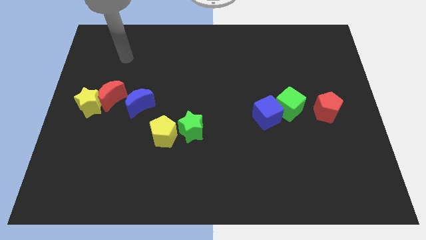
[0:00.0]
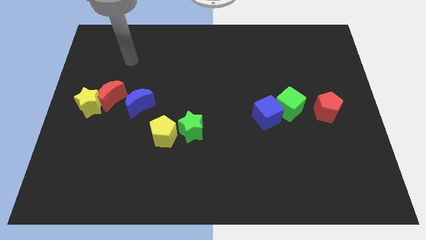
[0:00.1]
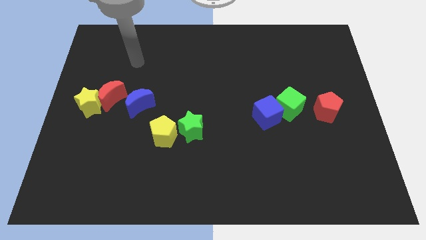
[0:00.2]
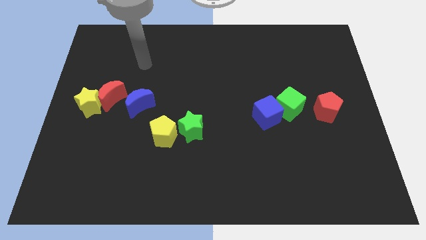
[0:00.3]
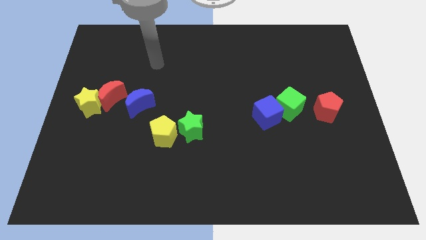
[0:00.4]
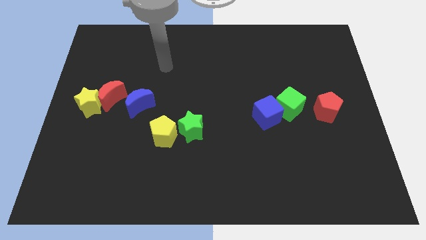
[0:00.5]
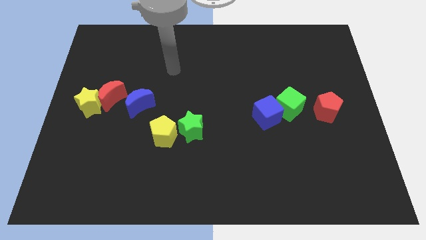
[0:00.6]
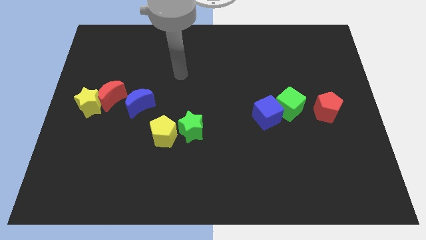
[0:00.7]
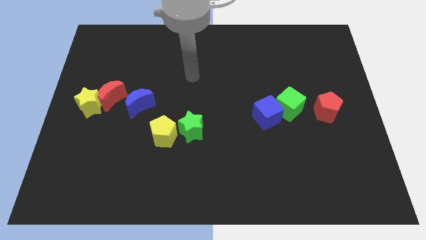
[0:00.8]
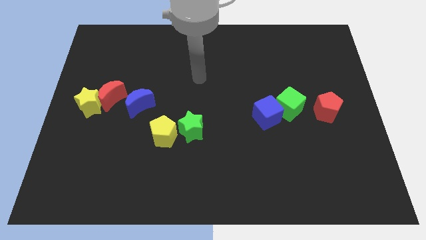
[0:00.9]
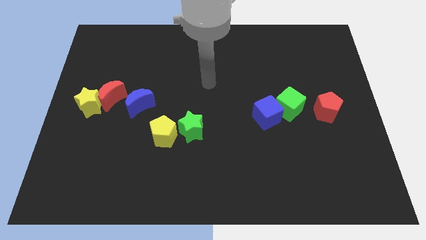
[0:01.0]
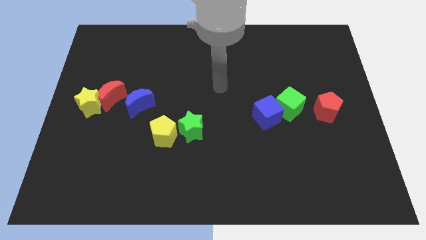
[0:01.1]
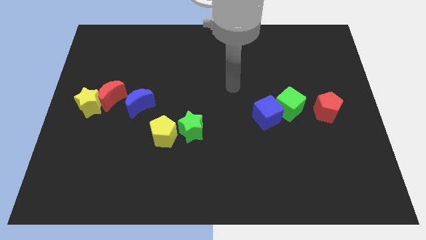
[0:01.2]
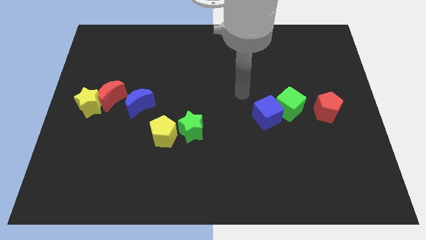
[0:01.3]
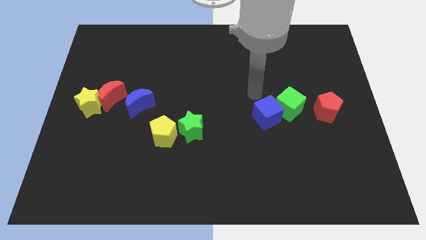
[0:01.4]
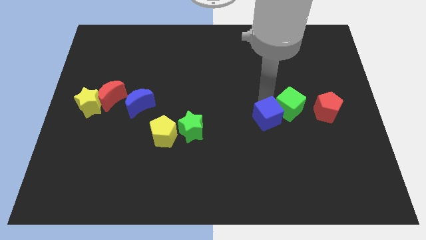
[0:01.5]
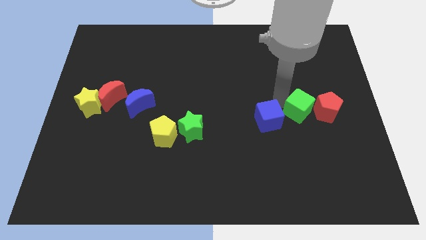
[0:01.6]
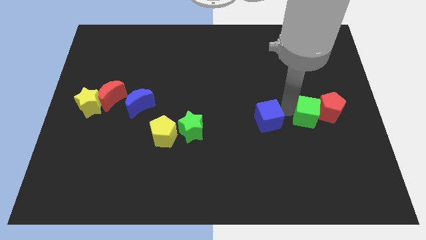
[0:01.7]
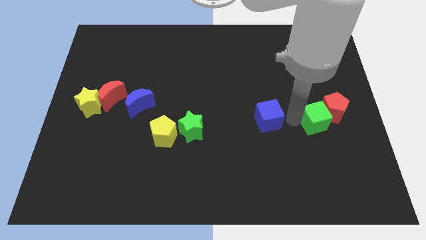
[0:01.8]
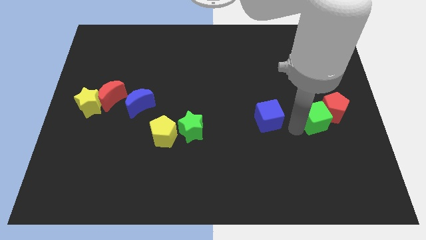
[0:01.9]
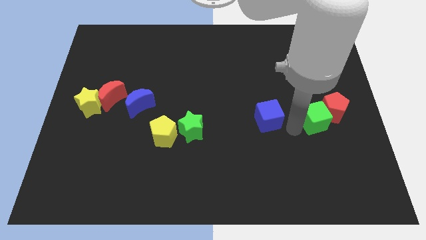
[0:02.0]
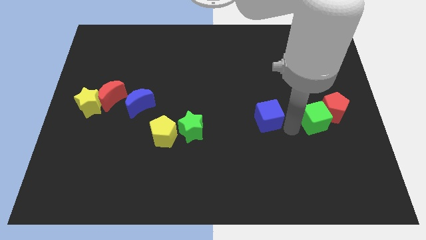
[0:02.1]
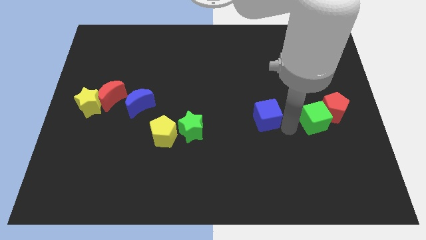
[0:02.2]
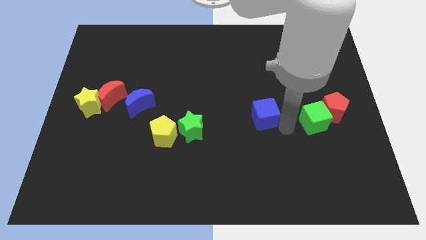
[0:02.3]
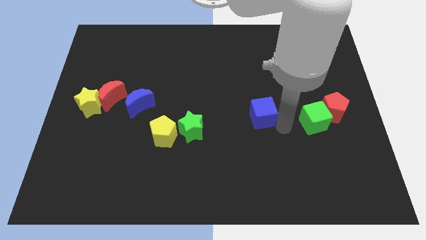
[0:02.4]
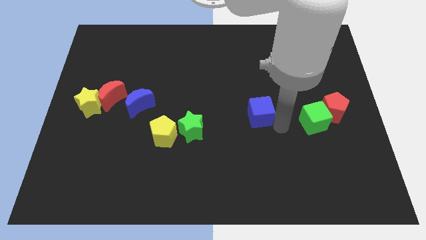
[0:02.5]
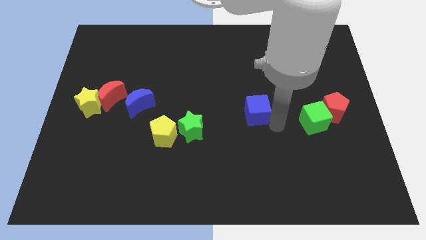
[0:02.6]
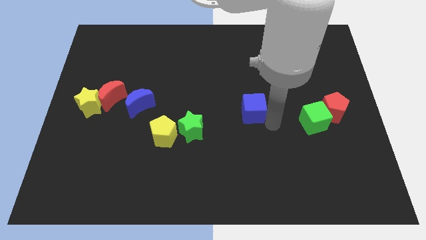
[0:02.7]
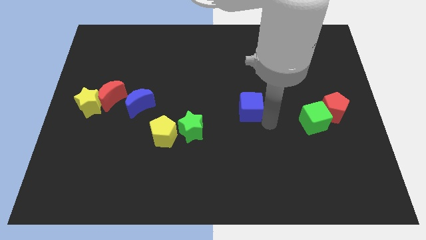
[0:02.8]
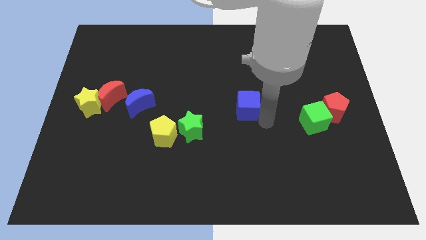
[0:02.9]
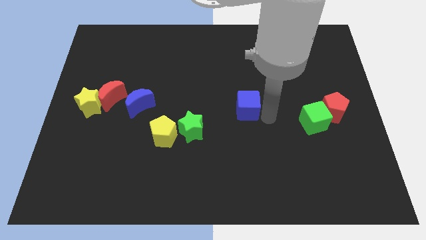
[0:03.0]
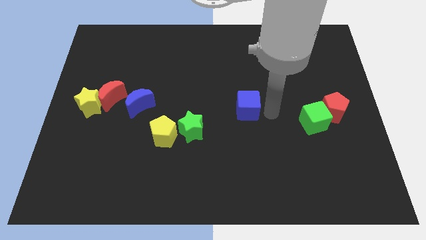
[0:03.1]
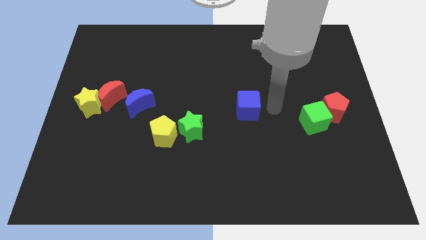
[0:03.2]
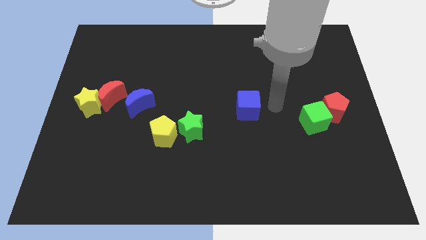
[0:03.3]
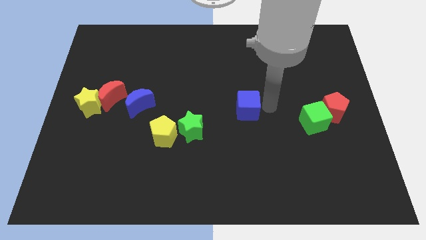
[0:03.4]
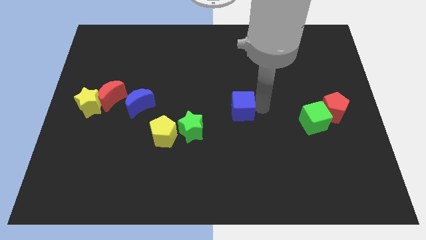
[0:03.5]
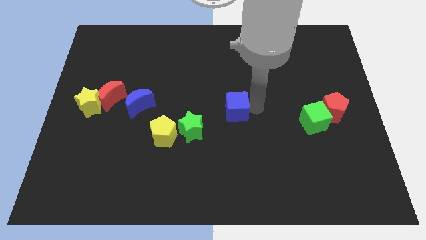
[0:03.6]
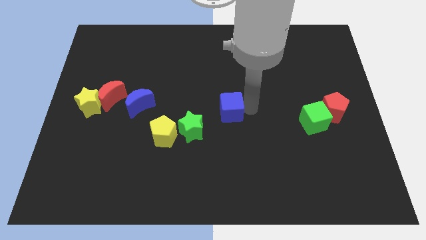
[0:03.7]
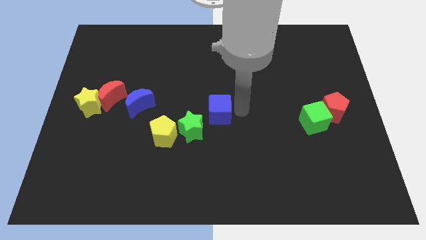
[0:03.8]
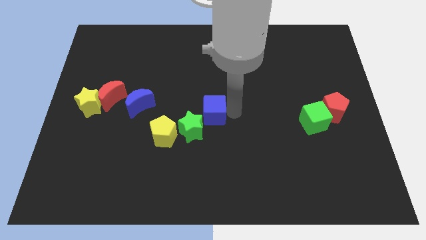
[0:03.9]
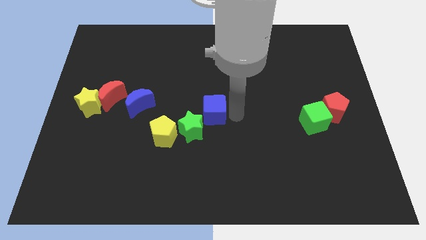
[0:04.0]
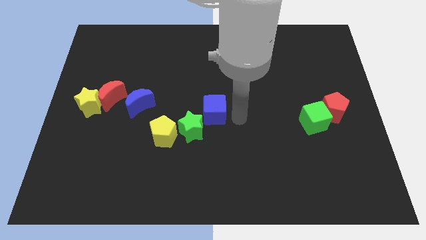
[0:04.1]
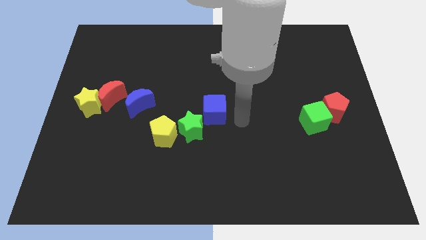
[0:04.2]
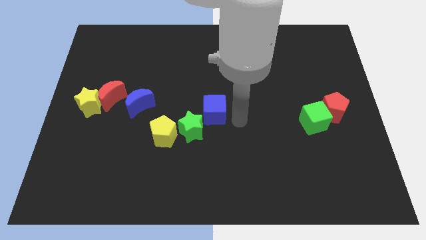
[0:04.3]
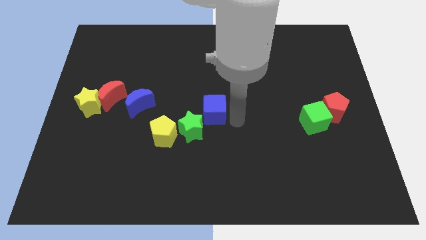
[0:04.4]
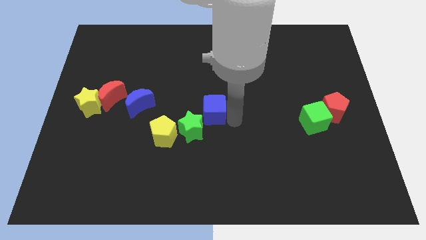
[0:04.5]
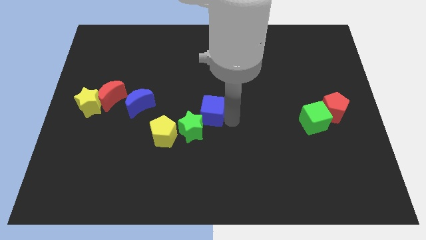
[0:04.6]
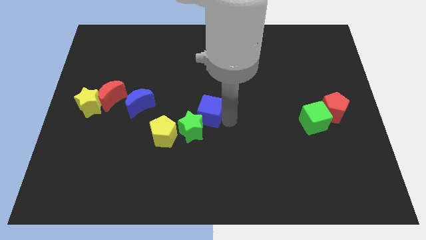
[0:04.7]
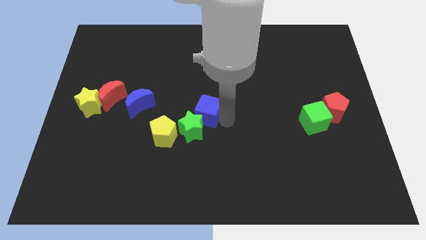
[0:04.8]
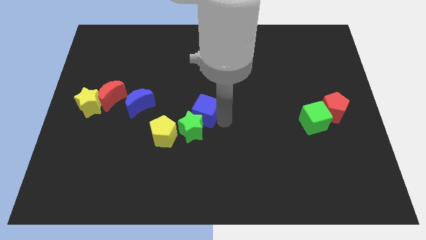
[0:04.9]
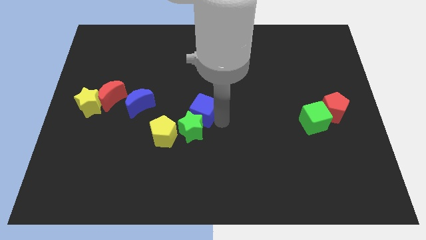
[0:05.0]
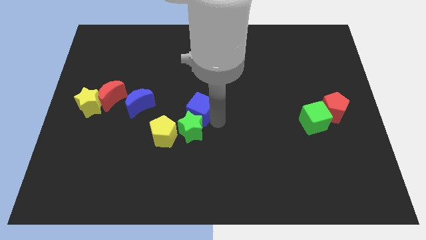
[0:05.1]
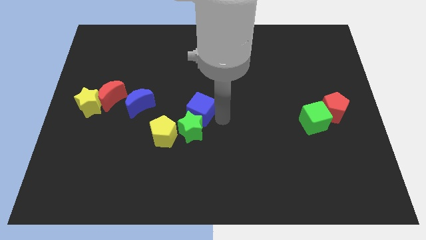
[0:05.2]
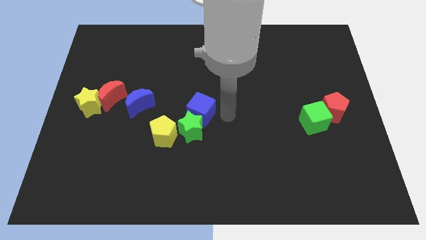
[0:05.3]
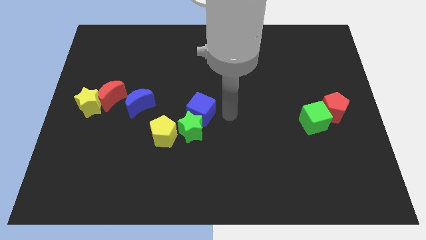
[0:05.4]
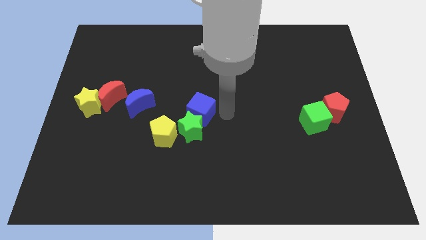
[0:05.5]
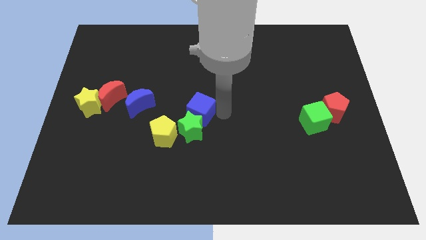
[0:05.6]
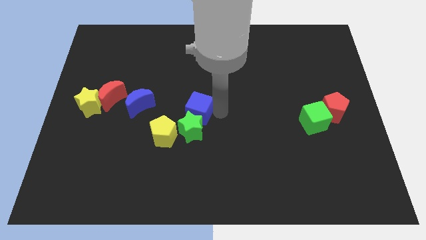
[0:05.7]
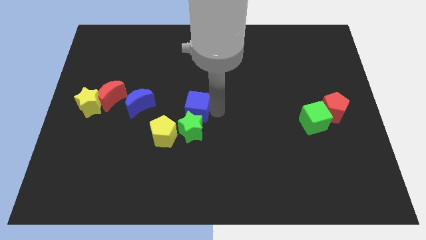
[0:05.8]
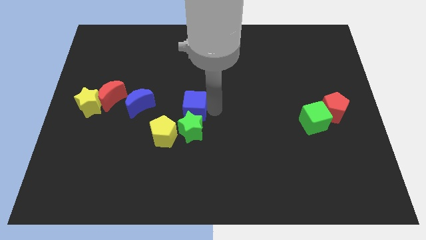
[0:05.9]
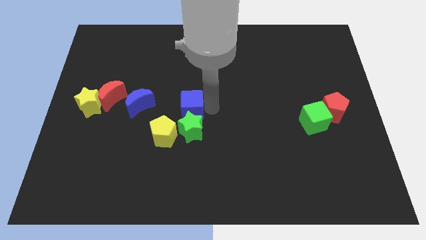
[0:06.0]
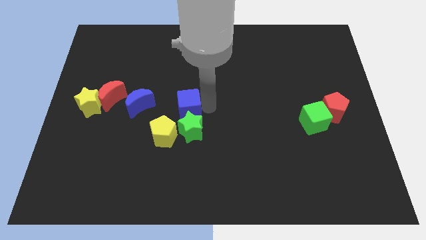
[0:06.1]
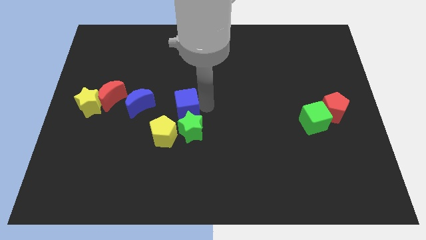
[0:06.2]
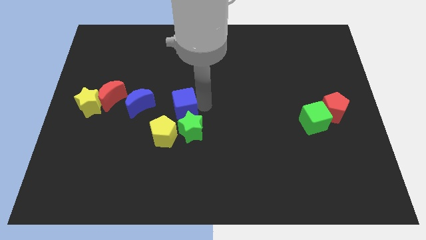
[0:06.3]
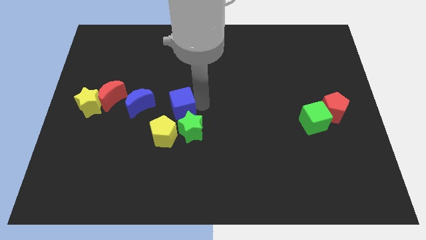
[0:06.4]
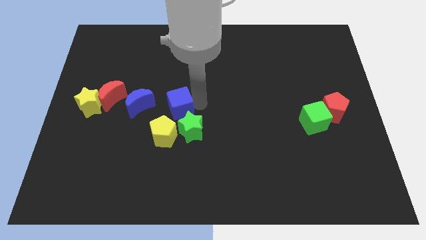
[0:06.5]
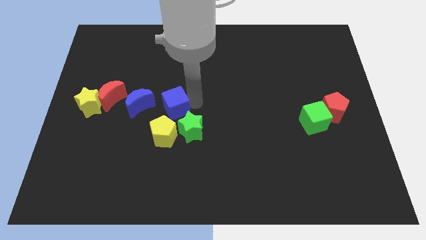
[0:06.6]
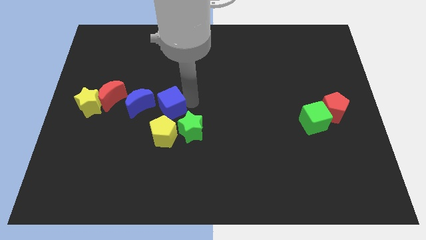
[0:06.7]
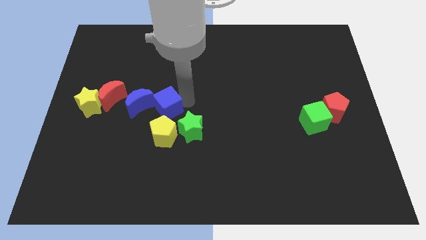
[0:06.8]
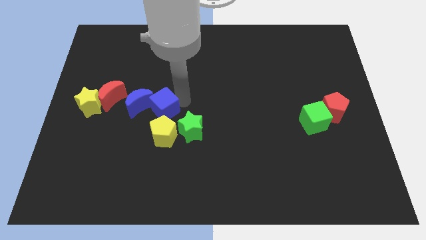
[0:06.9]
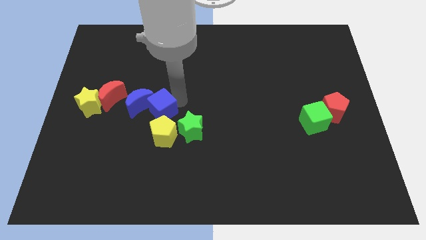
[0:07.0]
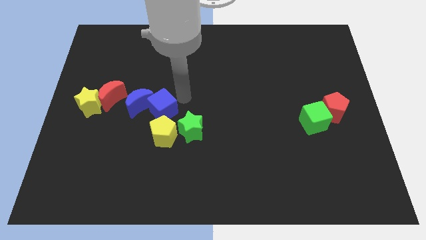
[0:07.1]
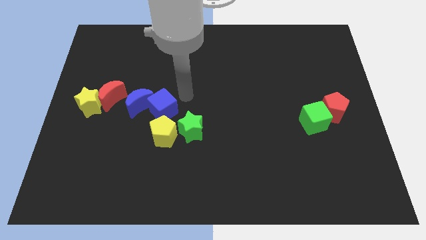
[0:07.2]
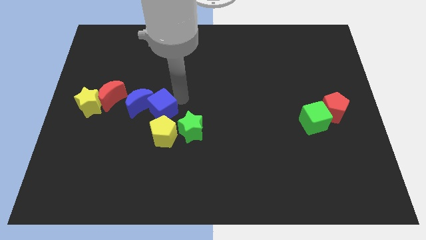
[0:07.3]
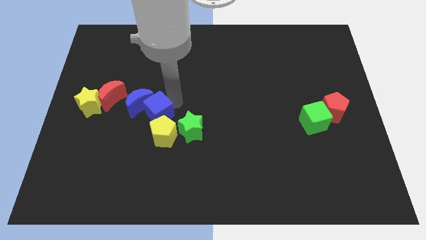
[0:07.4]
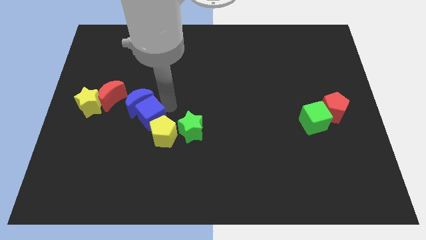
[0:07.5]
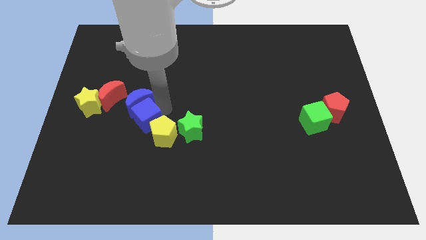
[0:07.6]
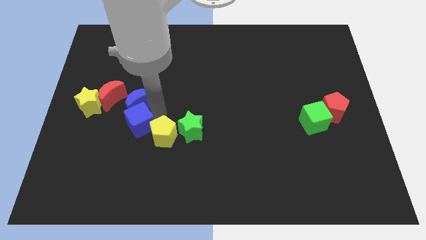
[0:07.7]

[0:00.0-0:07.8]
put the blue cube diagonally down and to the left of the blue moon
